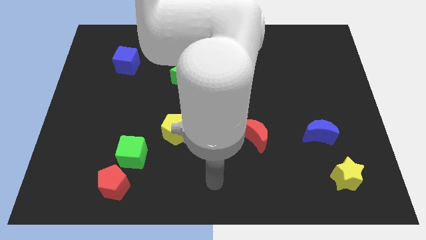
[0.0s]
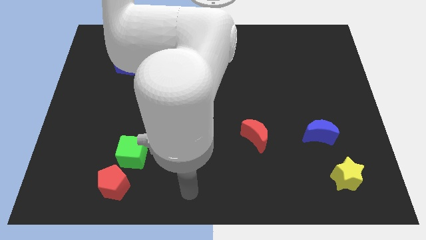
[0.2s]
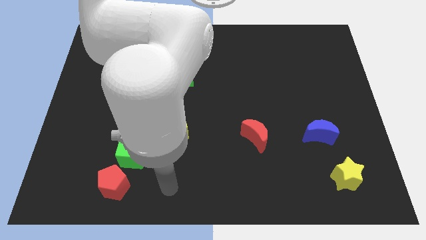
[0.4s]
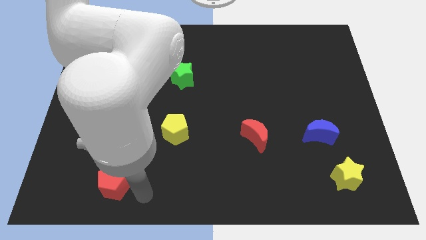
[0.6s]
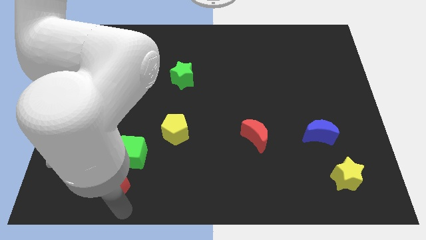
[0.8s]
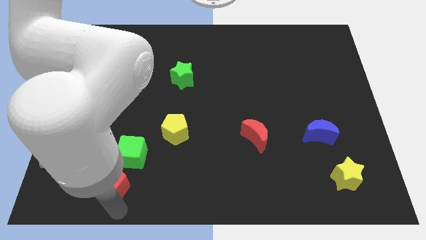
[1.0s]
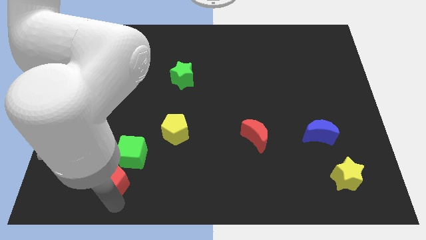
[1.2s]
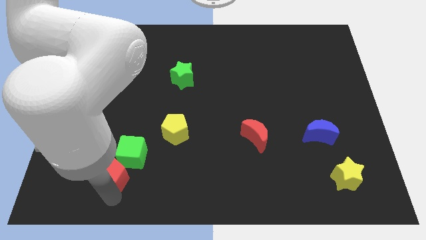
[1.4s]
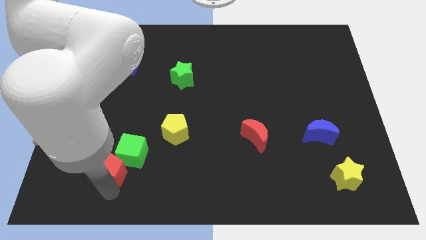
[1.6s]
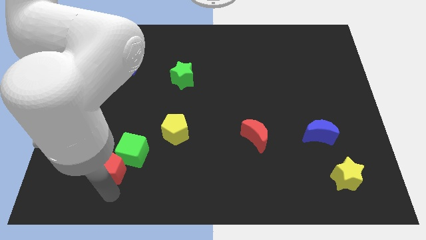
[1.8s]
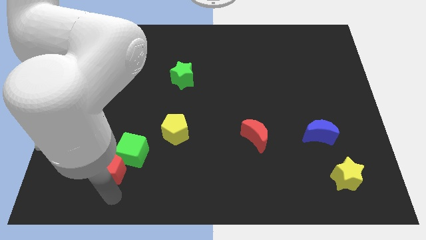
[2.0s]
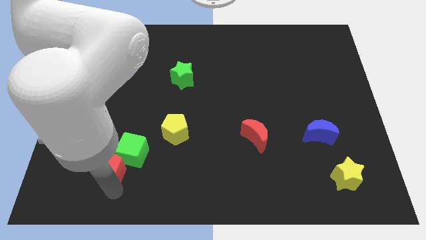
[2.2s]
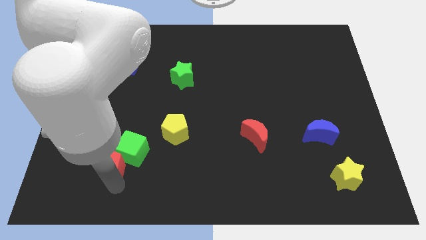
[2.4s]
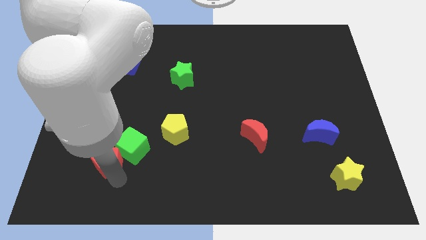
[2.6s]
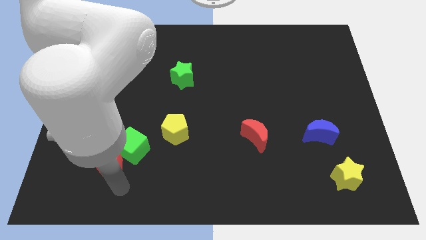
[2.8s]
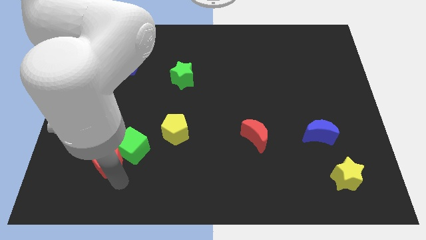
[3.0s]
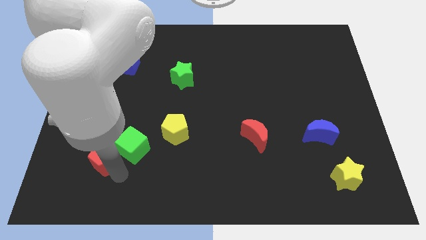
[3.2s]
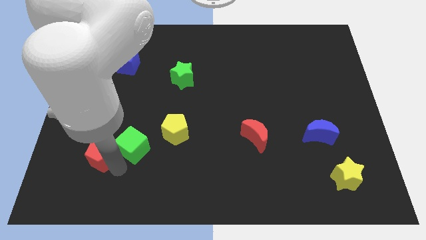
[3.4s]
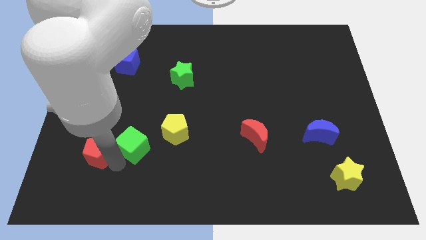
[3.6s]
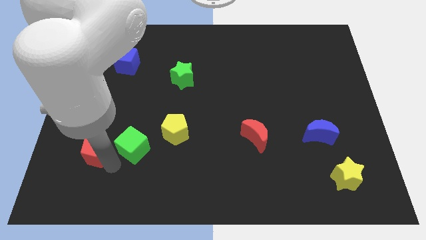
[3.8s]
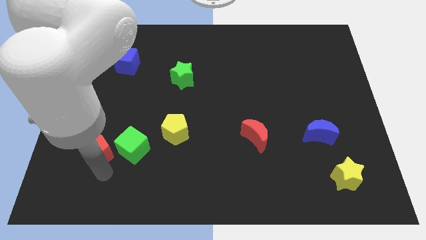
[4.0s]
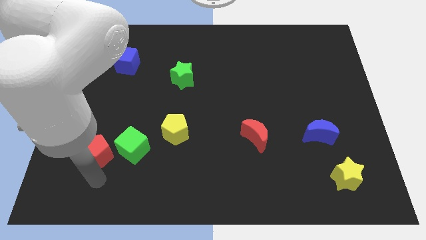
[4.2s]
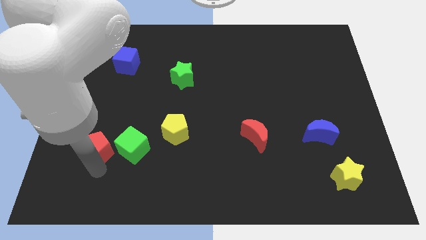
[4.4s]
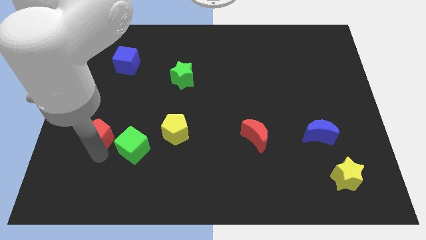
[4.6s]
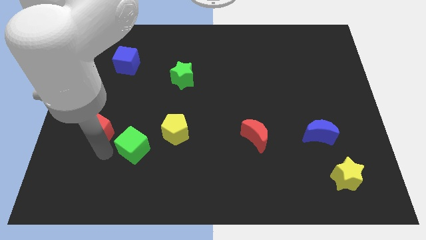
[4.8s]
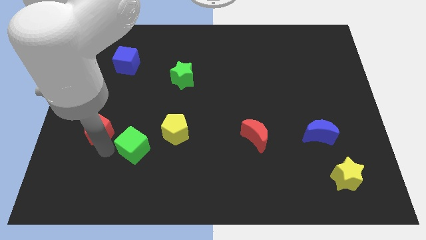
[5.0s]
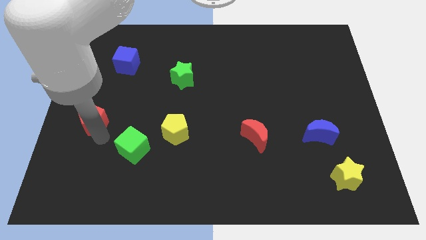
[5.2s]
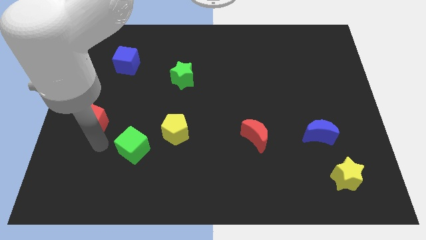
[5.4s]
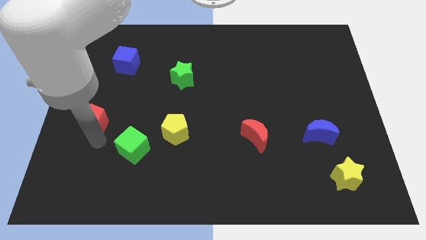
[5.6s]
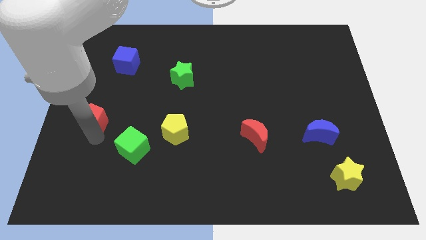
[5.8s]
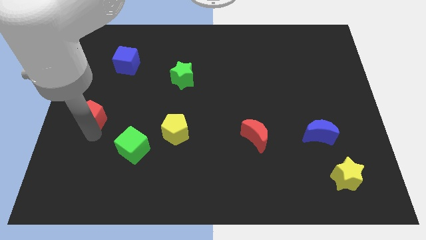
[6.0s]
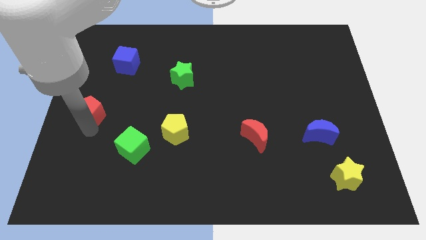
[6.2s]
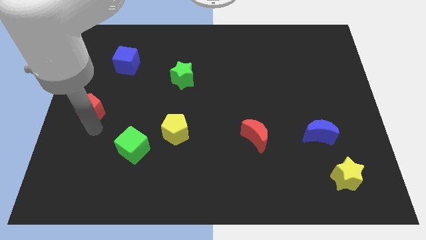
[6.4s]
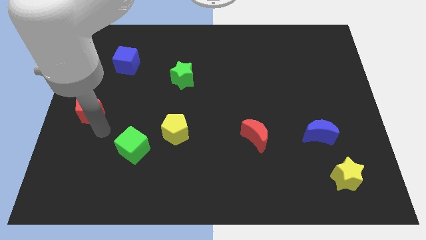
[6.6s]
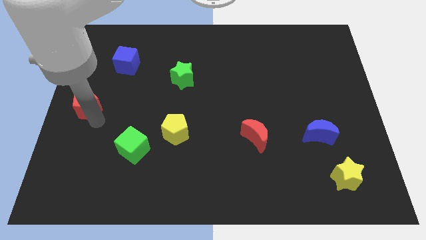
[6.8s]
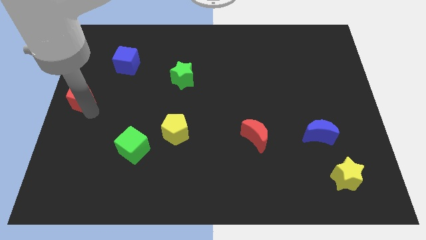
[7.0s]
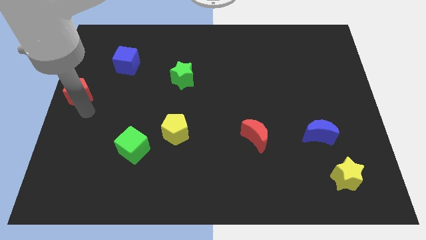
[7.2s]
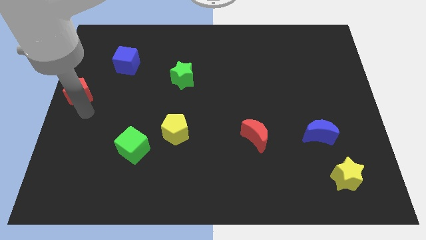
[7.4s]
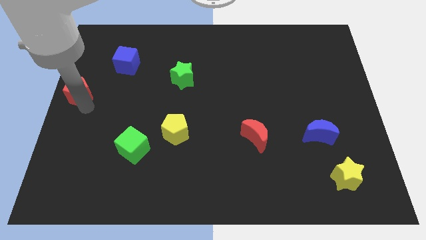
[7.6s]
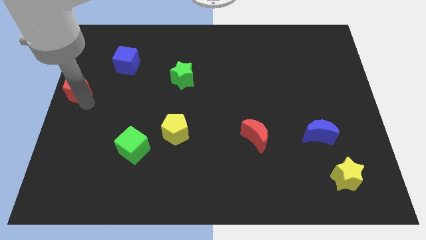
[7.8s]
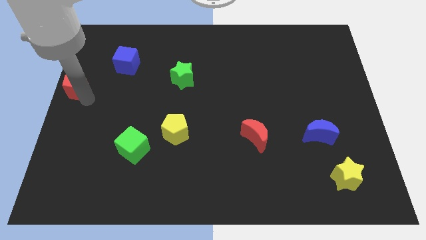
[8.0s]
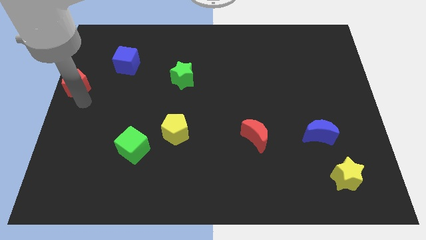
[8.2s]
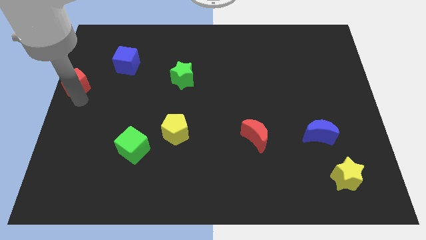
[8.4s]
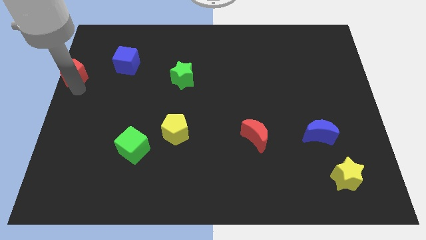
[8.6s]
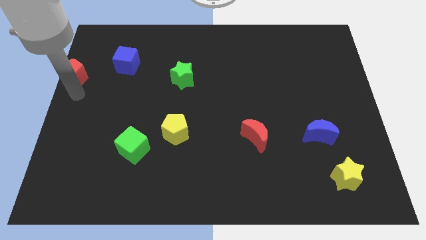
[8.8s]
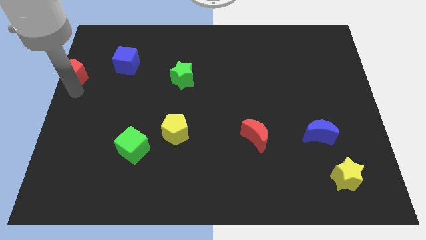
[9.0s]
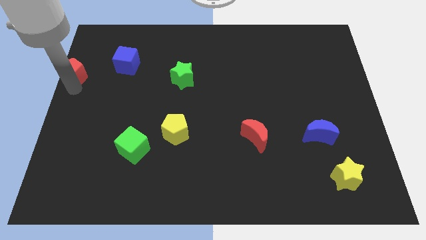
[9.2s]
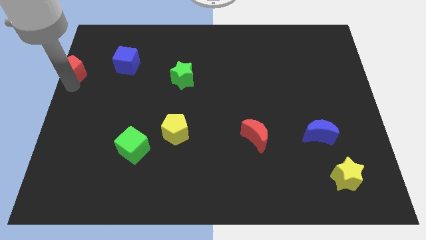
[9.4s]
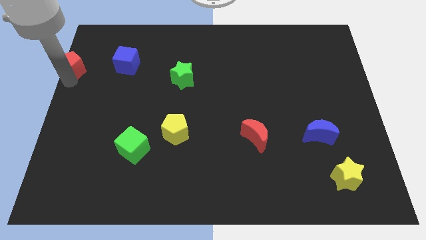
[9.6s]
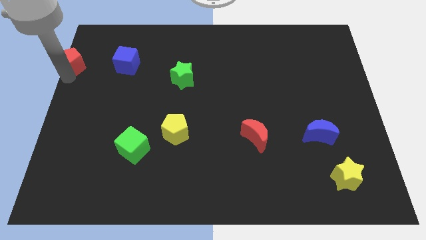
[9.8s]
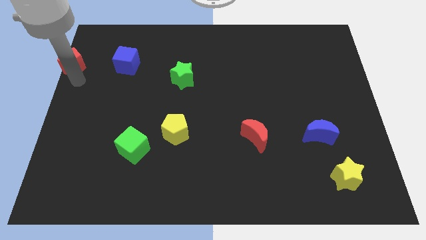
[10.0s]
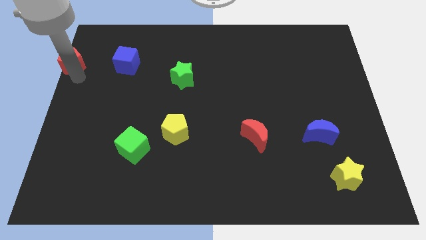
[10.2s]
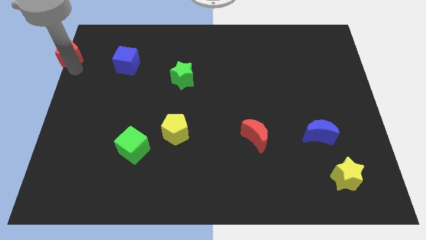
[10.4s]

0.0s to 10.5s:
push the red pentagon to the top left

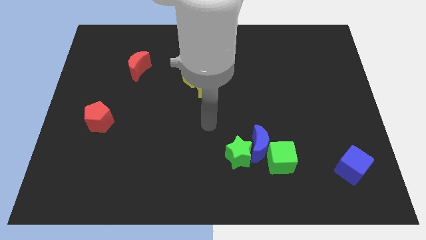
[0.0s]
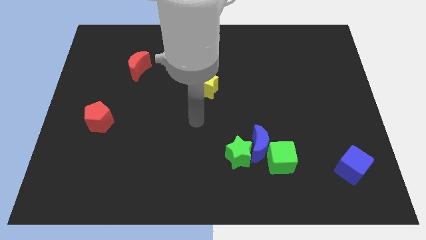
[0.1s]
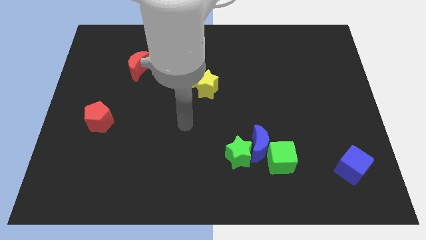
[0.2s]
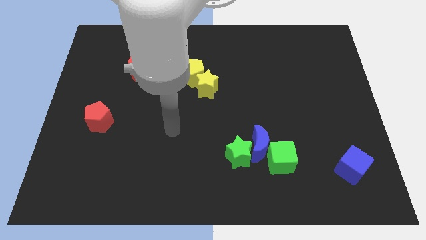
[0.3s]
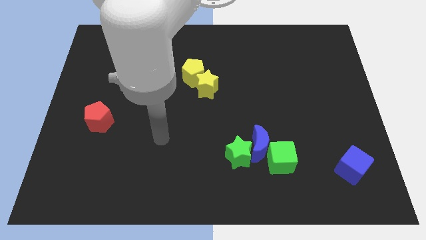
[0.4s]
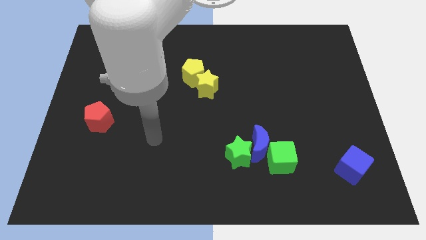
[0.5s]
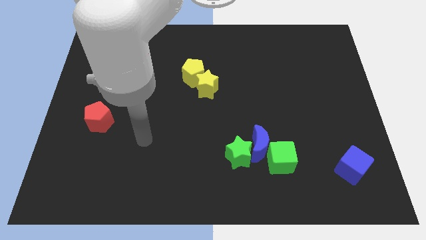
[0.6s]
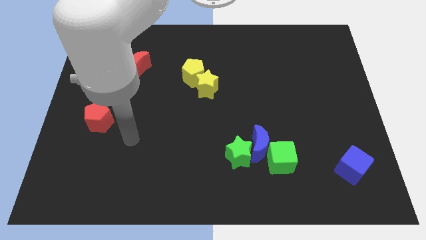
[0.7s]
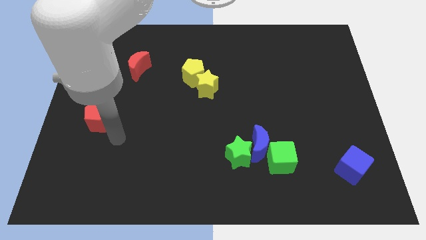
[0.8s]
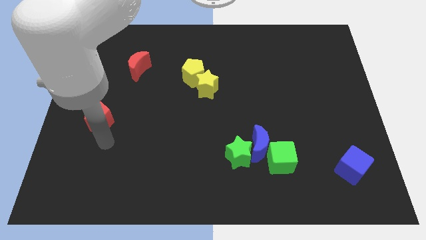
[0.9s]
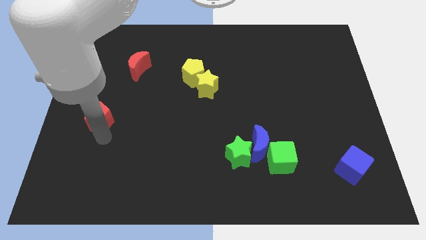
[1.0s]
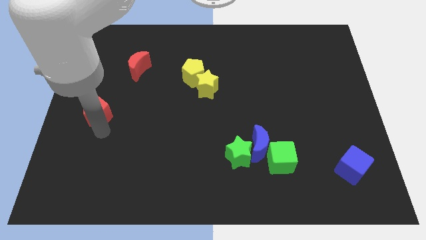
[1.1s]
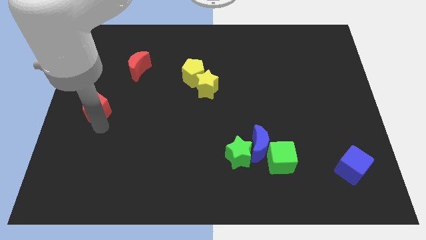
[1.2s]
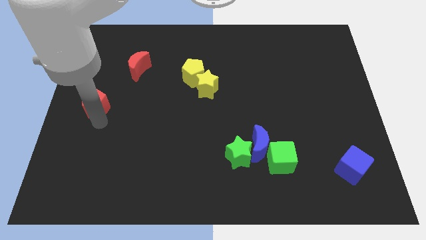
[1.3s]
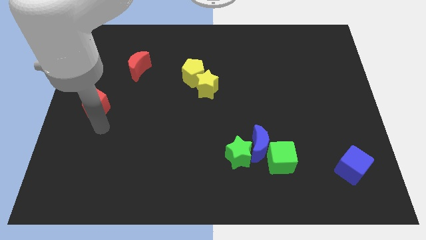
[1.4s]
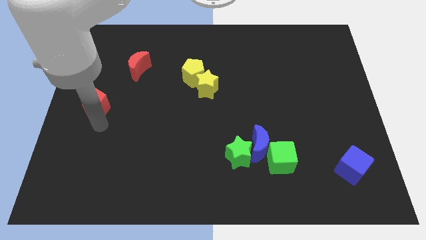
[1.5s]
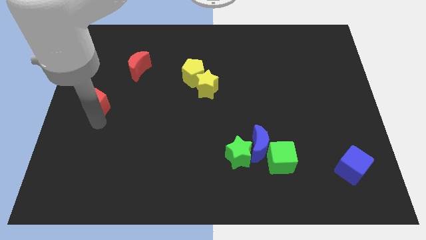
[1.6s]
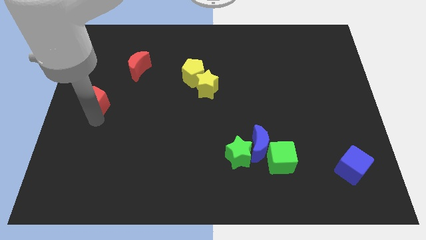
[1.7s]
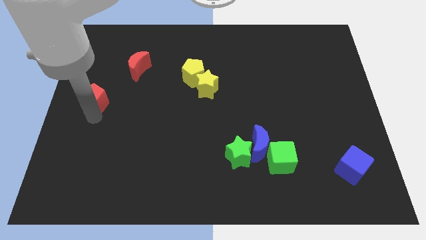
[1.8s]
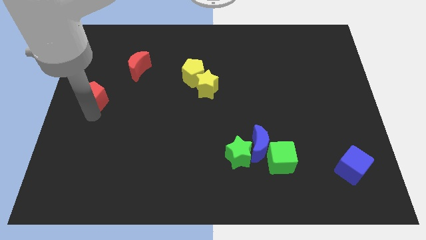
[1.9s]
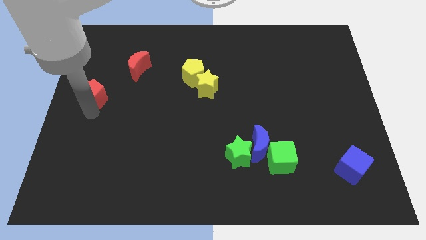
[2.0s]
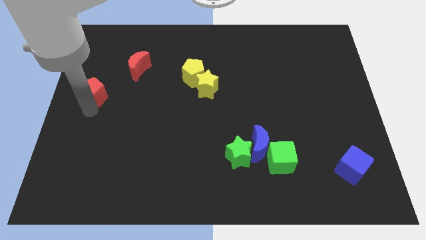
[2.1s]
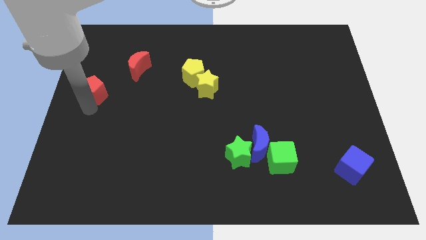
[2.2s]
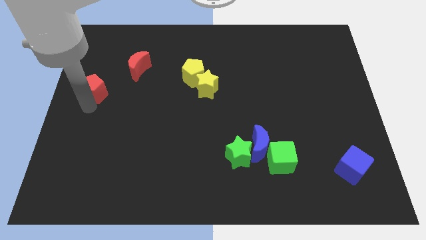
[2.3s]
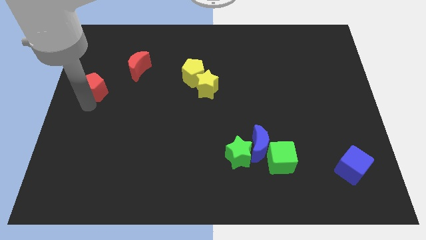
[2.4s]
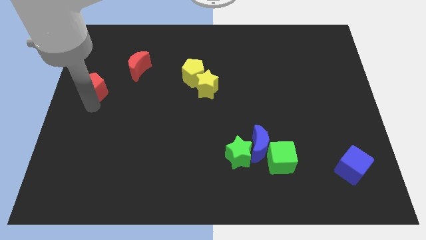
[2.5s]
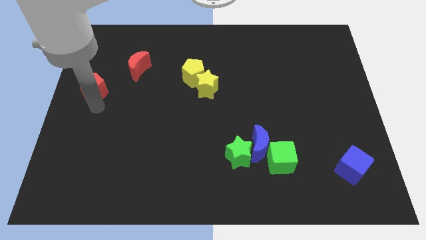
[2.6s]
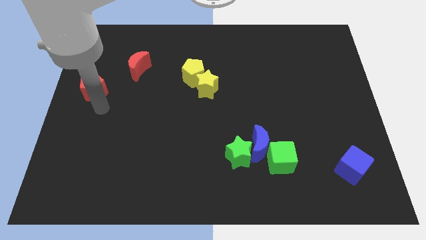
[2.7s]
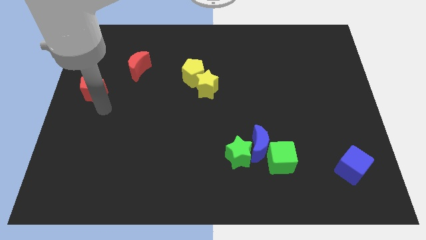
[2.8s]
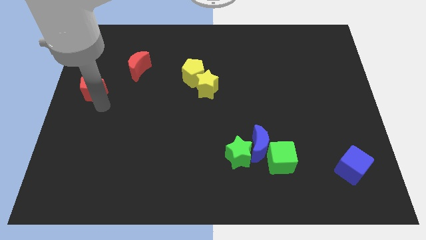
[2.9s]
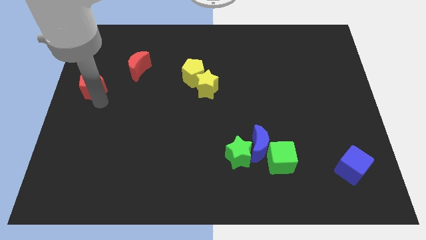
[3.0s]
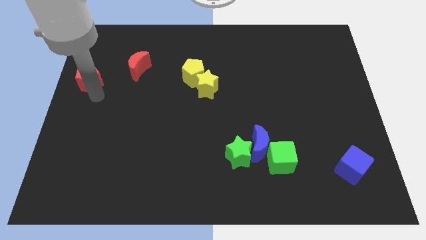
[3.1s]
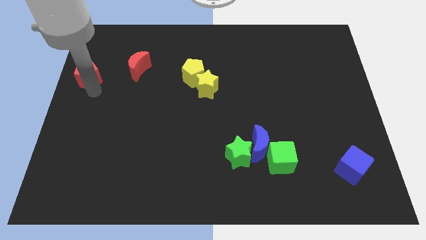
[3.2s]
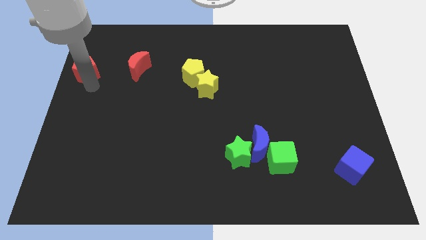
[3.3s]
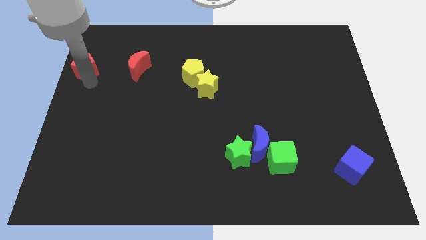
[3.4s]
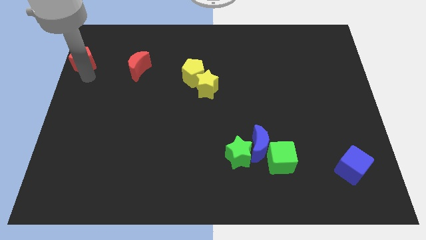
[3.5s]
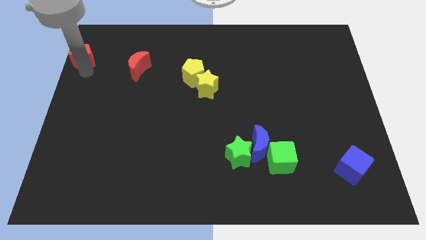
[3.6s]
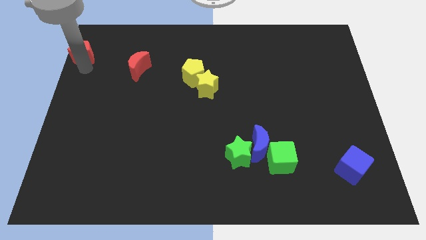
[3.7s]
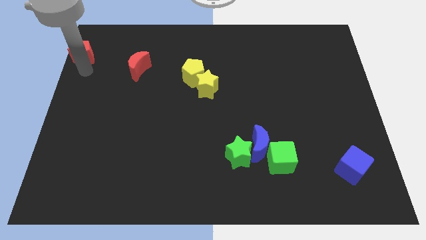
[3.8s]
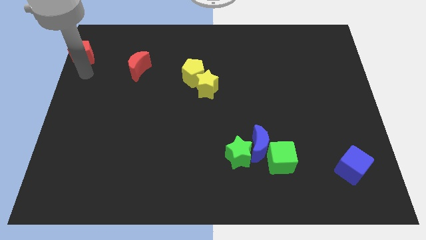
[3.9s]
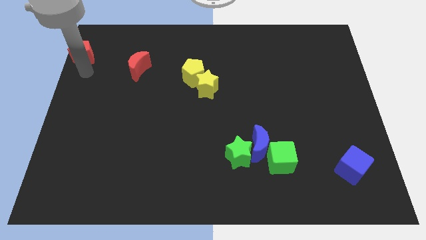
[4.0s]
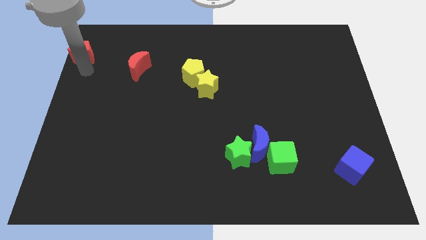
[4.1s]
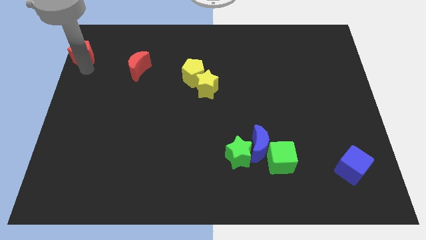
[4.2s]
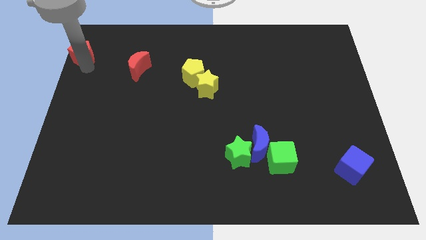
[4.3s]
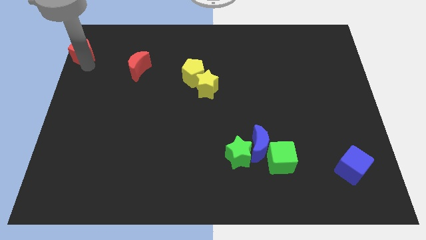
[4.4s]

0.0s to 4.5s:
put the red pentagon to the top left of the board
